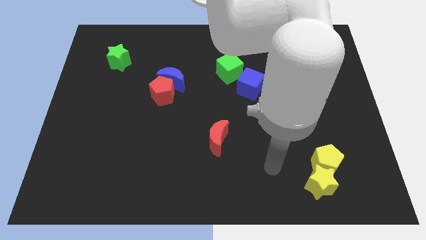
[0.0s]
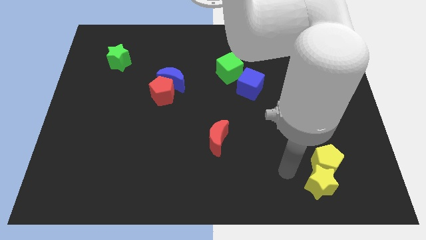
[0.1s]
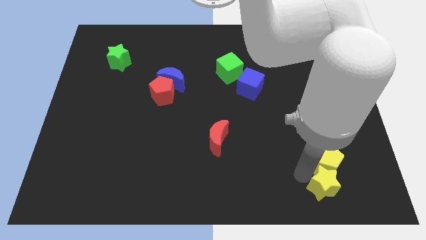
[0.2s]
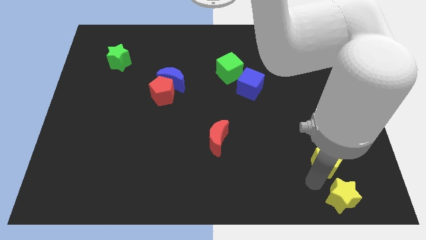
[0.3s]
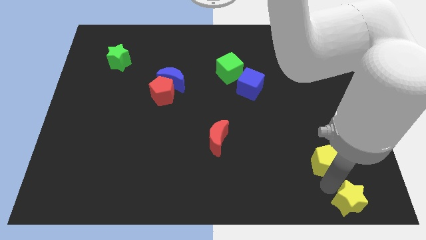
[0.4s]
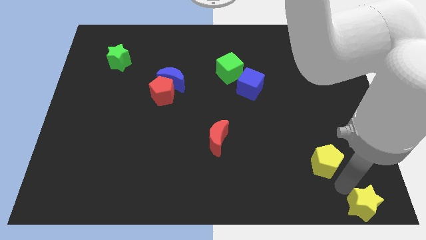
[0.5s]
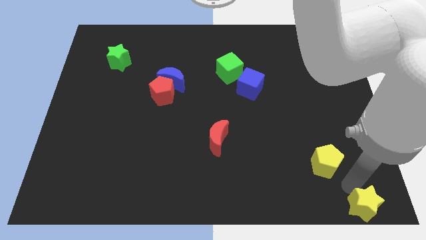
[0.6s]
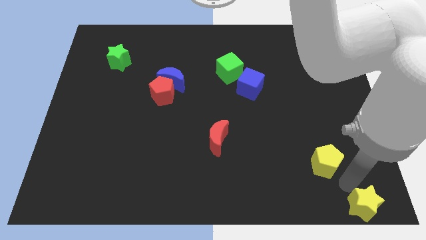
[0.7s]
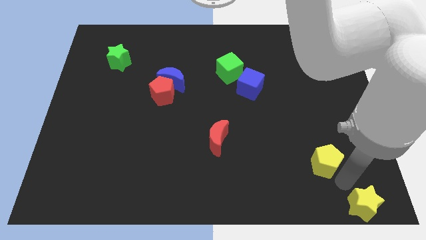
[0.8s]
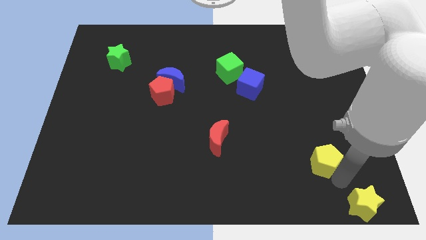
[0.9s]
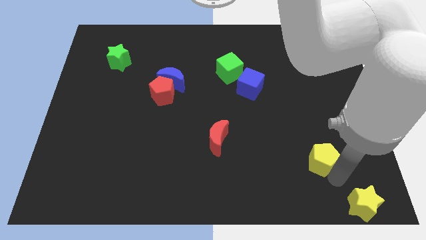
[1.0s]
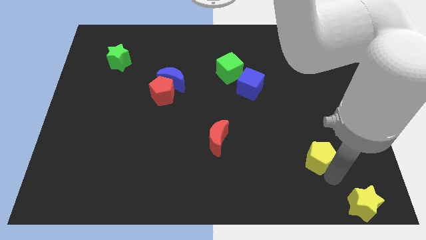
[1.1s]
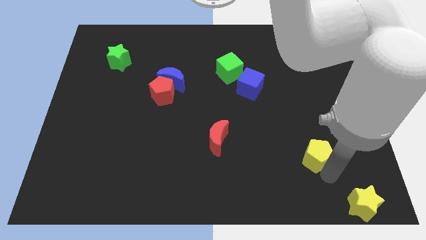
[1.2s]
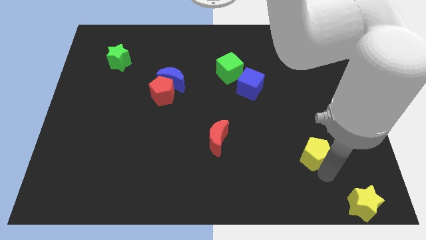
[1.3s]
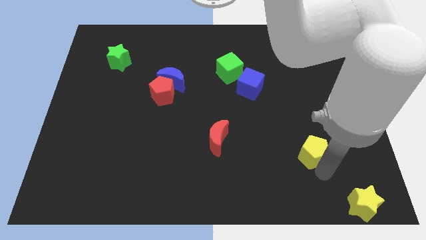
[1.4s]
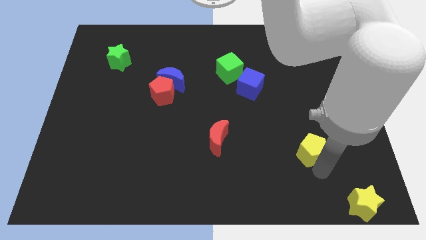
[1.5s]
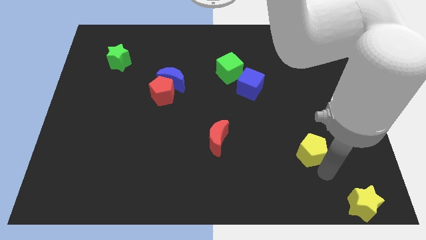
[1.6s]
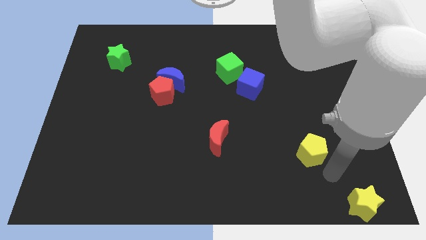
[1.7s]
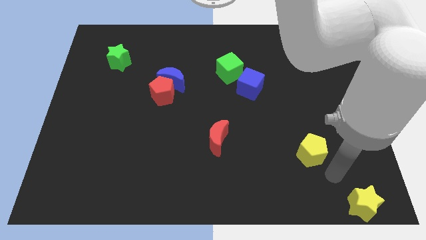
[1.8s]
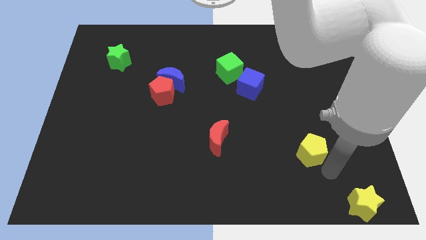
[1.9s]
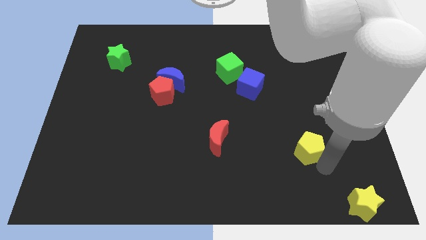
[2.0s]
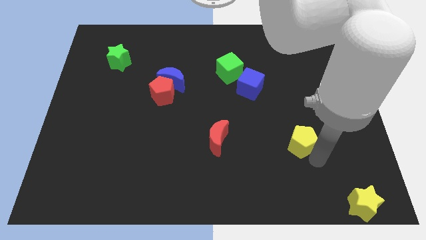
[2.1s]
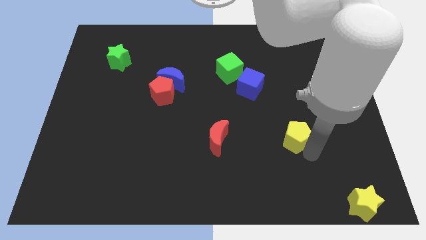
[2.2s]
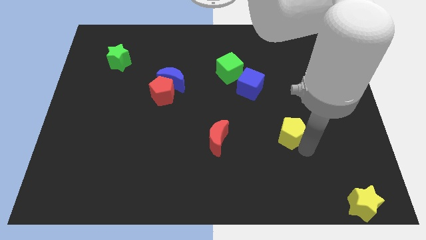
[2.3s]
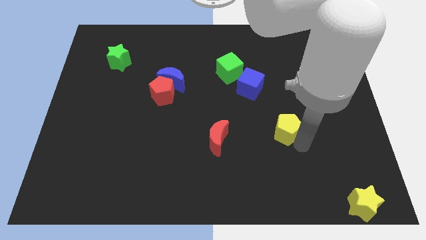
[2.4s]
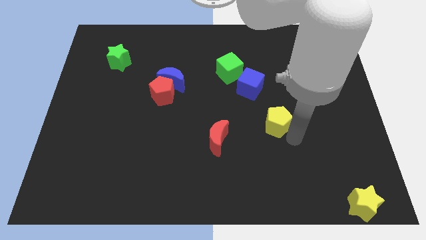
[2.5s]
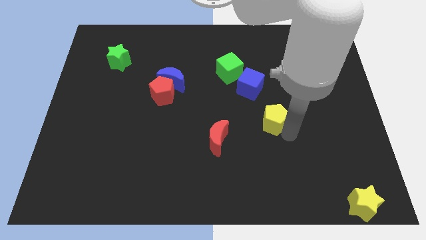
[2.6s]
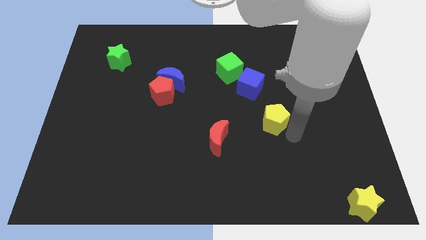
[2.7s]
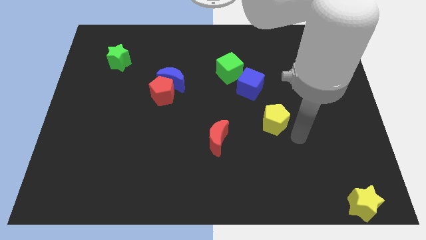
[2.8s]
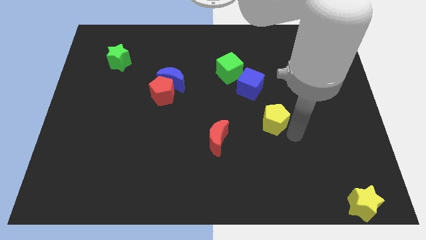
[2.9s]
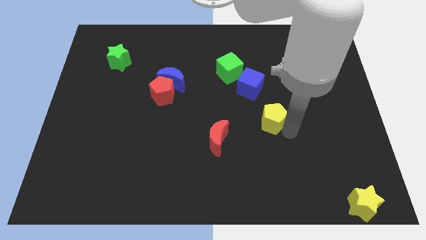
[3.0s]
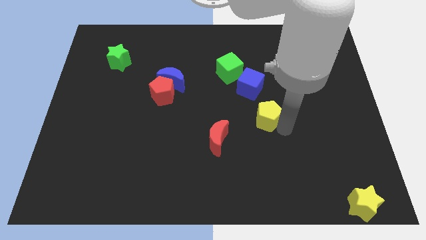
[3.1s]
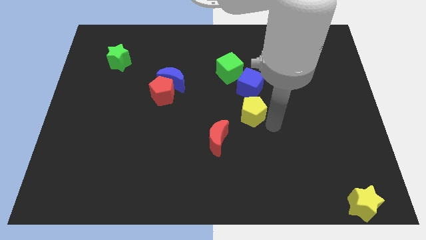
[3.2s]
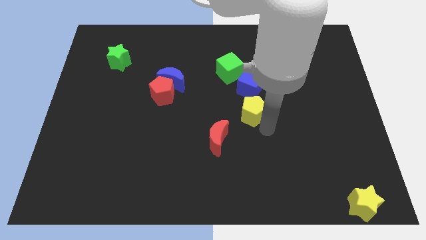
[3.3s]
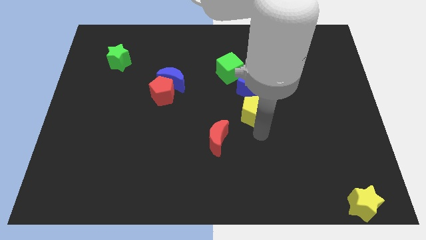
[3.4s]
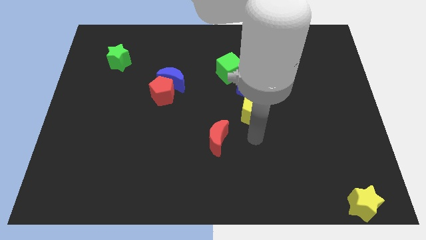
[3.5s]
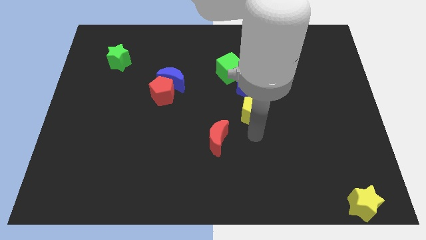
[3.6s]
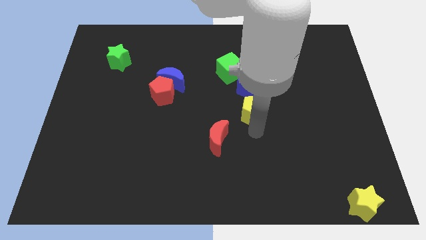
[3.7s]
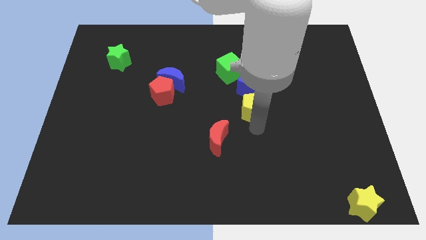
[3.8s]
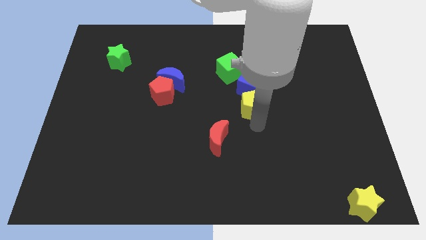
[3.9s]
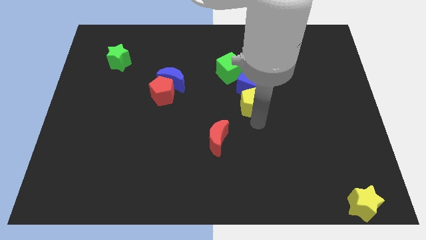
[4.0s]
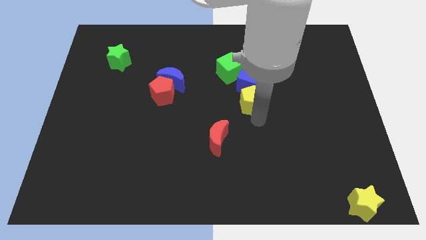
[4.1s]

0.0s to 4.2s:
push the yellow pentagon next to the blue cube

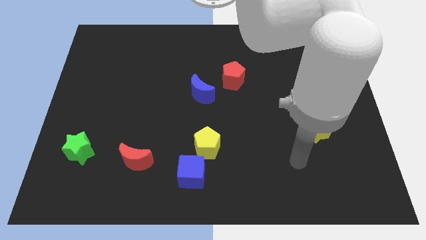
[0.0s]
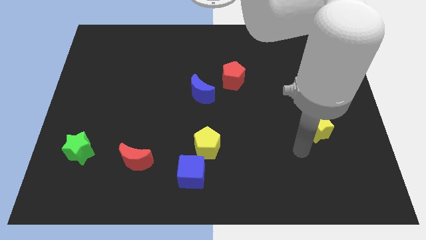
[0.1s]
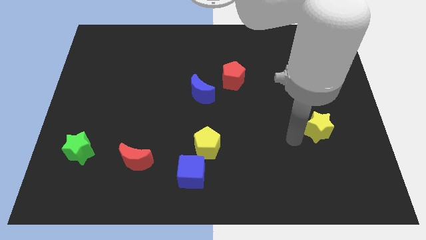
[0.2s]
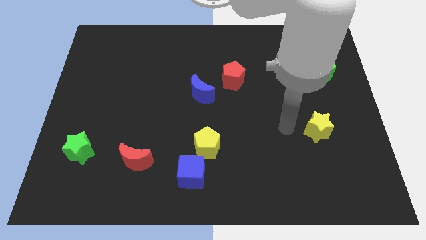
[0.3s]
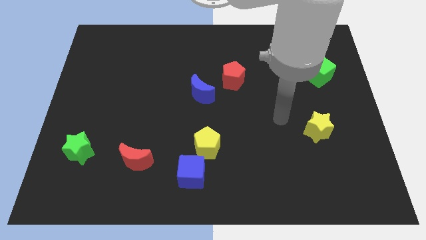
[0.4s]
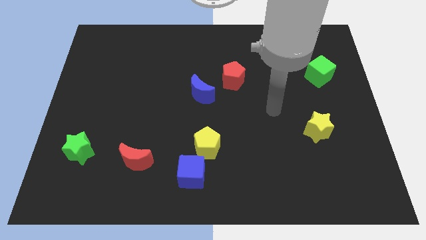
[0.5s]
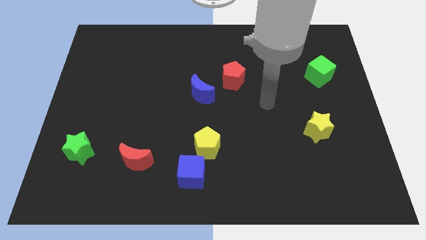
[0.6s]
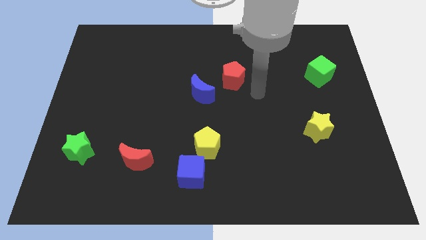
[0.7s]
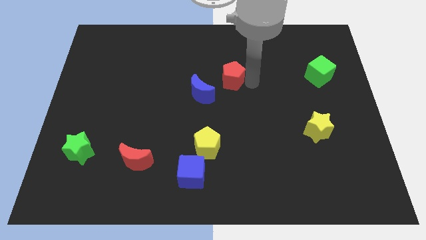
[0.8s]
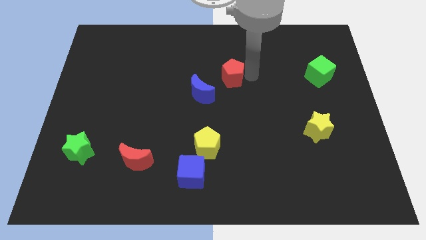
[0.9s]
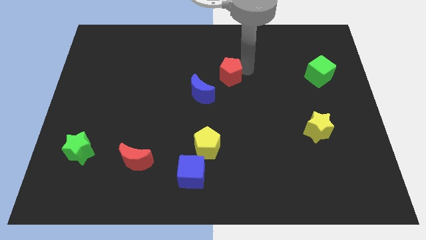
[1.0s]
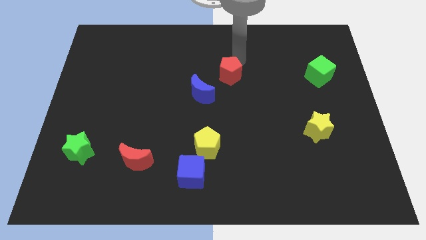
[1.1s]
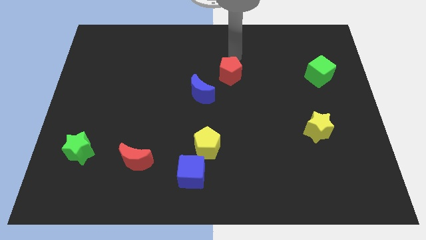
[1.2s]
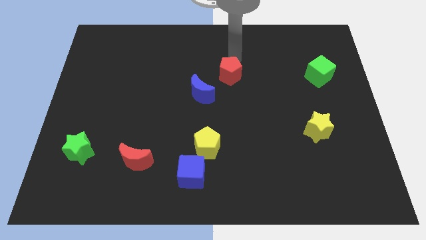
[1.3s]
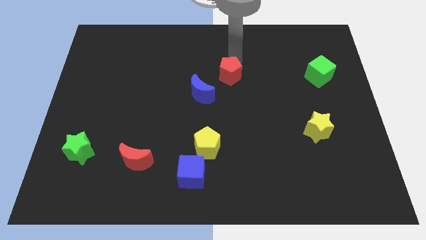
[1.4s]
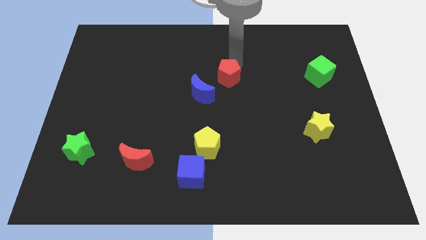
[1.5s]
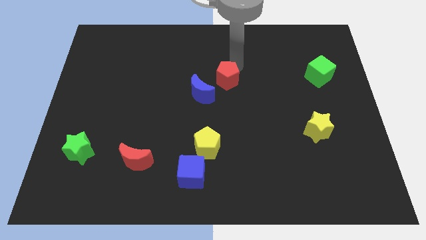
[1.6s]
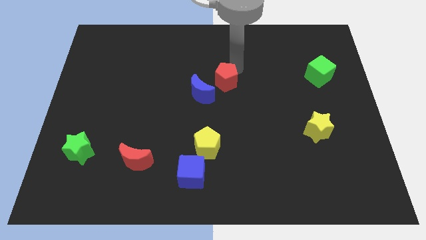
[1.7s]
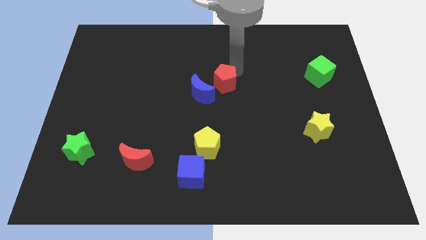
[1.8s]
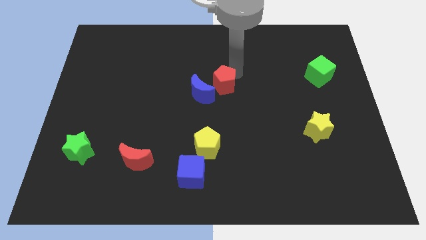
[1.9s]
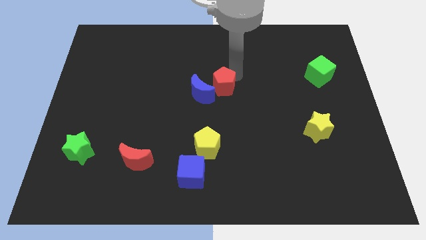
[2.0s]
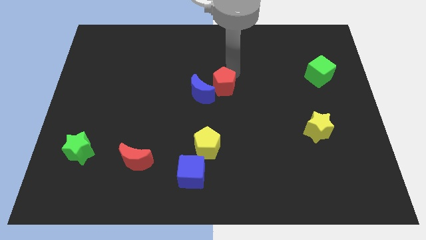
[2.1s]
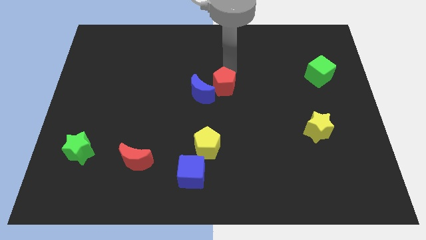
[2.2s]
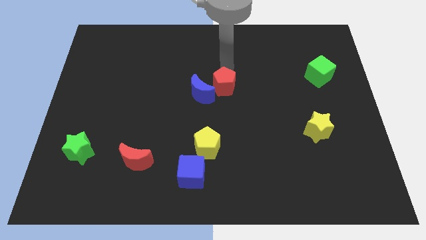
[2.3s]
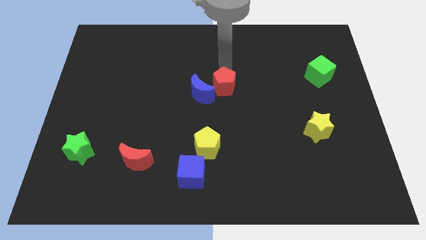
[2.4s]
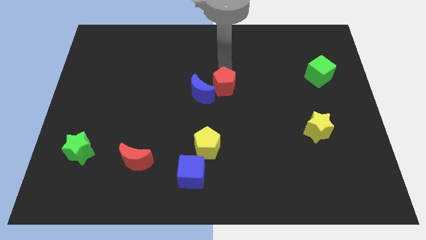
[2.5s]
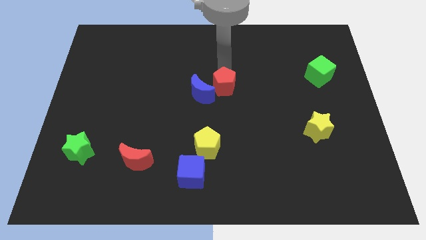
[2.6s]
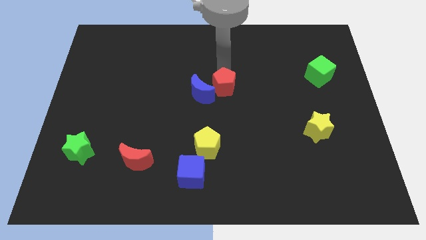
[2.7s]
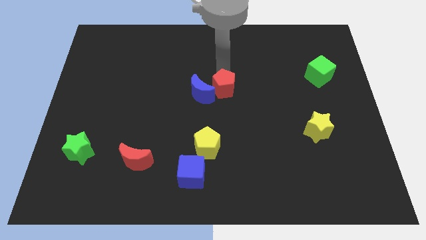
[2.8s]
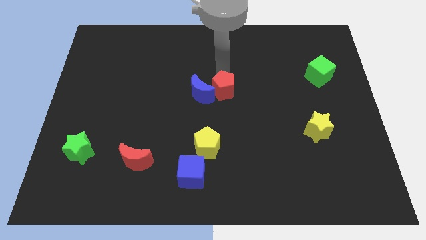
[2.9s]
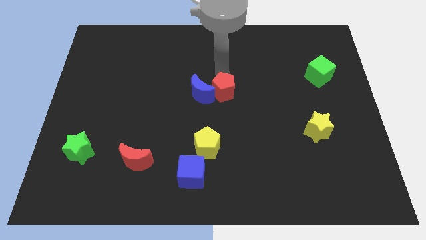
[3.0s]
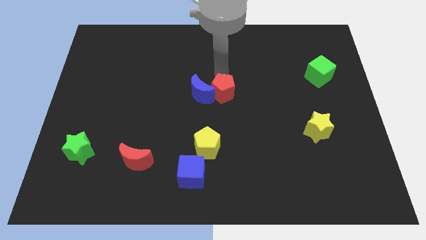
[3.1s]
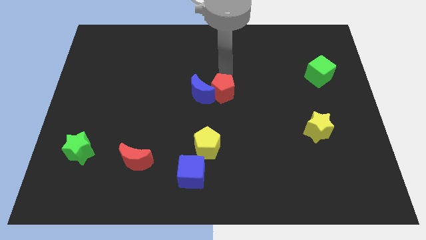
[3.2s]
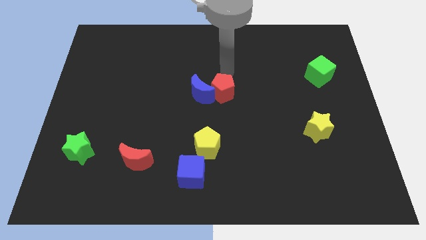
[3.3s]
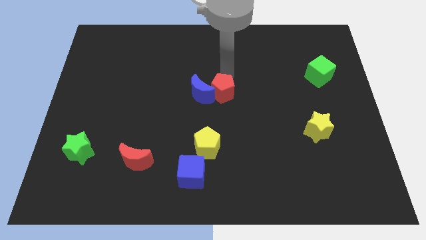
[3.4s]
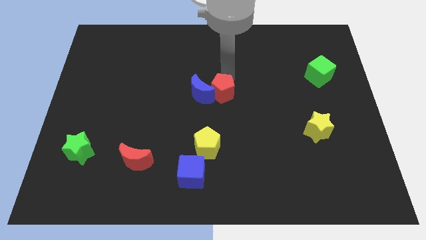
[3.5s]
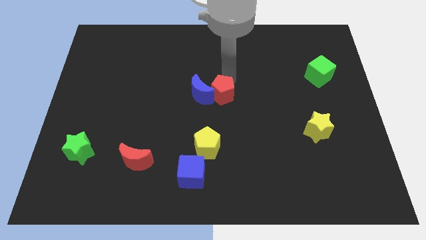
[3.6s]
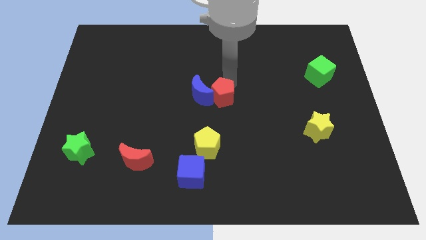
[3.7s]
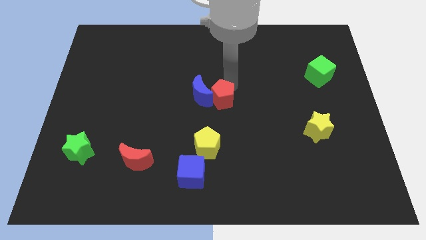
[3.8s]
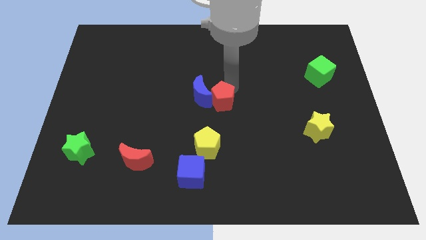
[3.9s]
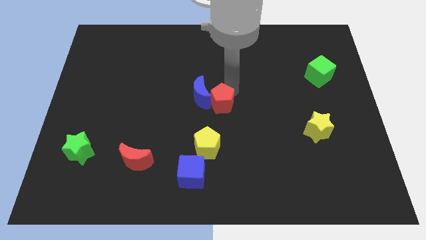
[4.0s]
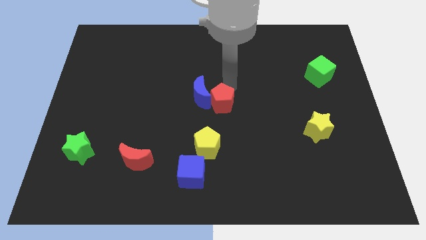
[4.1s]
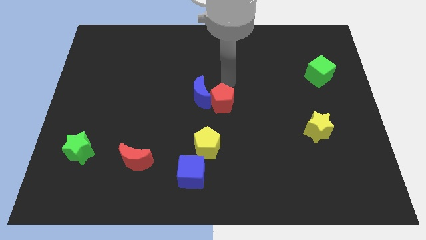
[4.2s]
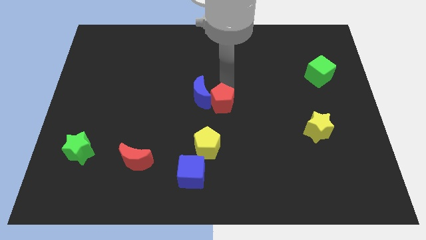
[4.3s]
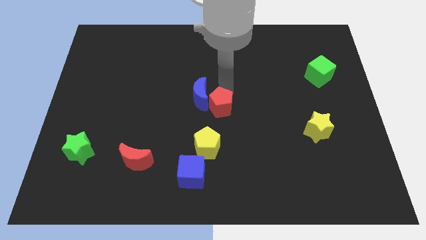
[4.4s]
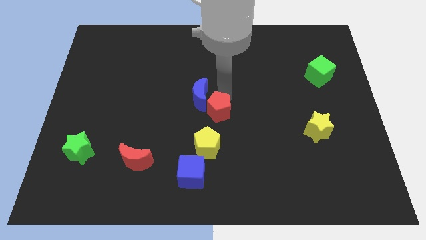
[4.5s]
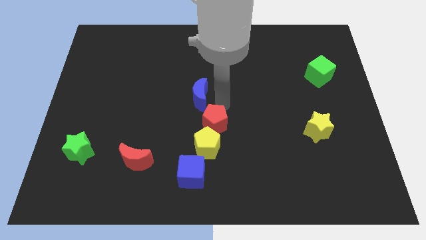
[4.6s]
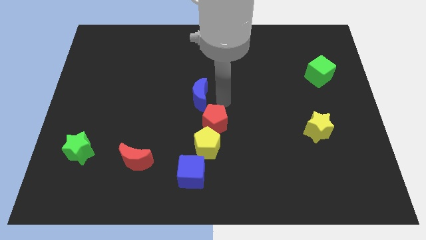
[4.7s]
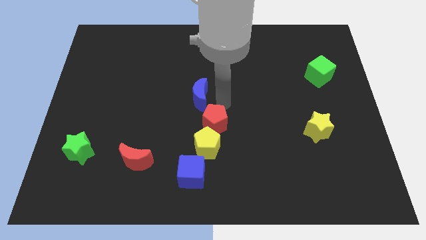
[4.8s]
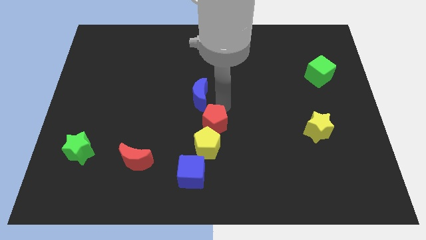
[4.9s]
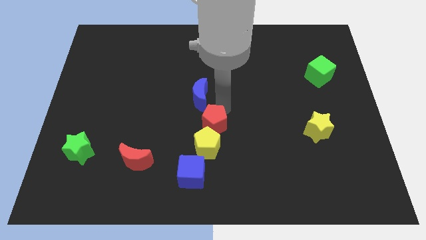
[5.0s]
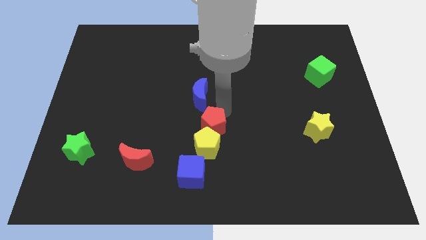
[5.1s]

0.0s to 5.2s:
put the red pentagon next to the yellow pentagon
